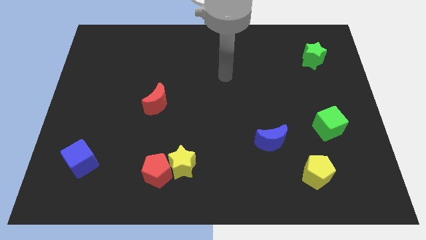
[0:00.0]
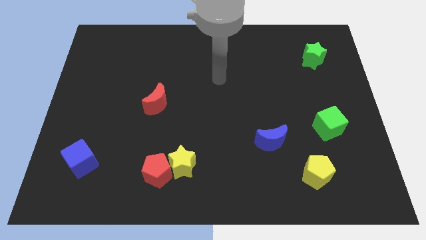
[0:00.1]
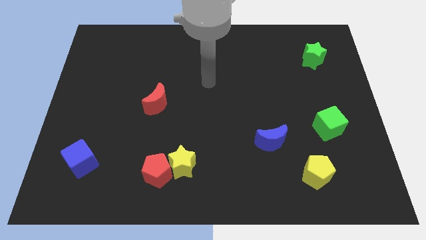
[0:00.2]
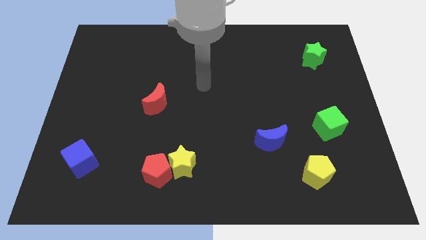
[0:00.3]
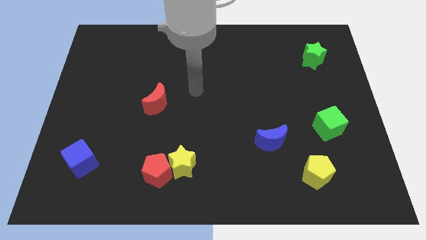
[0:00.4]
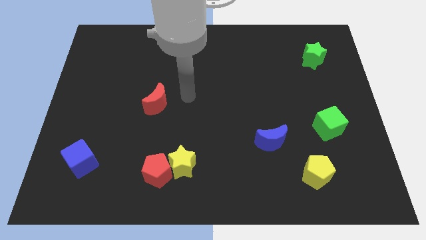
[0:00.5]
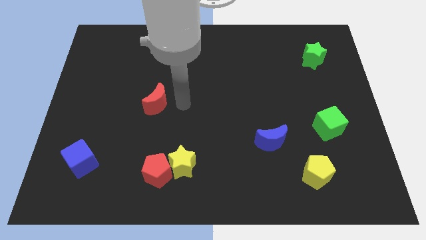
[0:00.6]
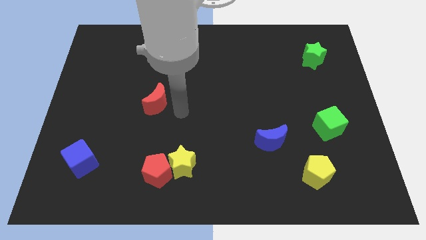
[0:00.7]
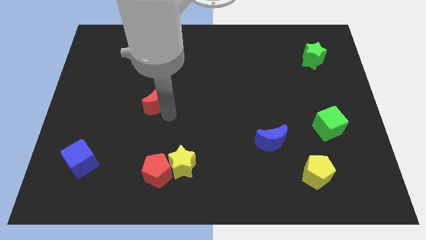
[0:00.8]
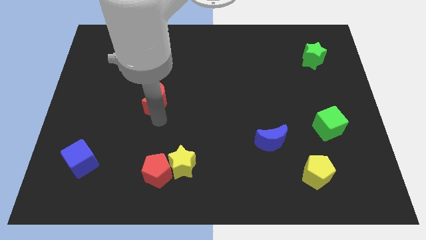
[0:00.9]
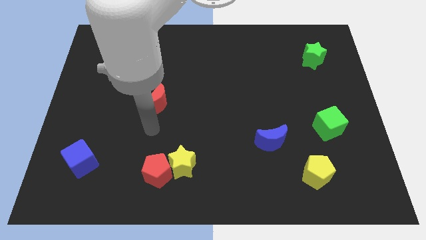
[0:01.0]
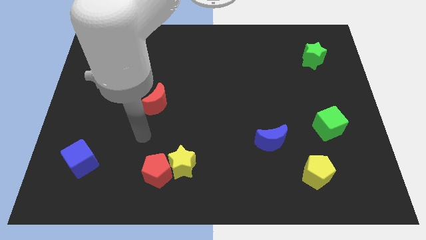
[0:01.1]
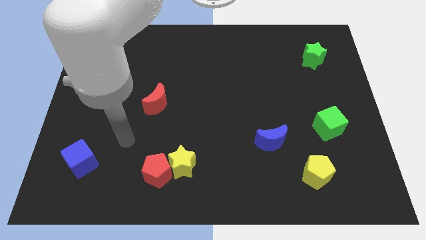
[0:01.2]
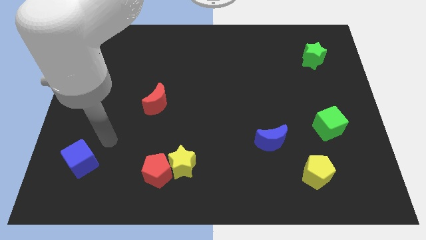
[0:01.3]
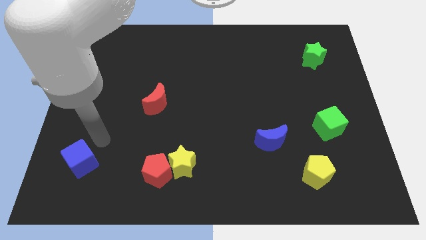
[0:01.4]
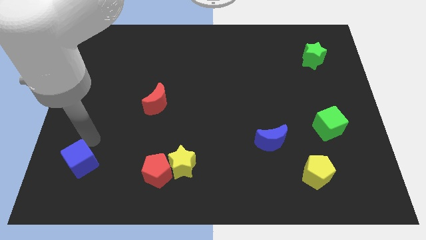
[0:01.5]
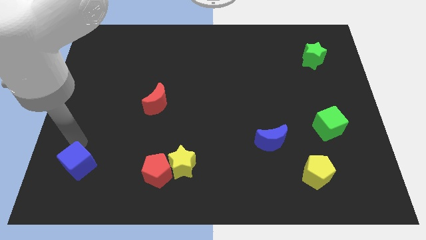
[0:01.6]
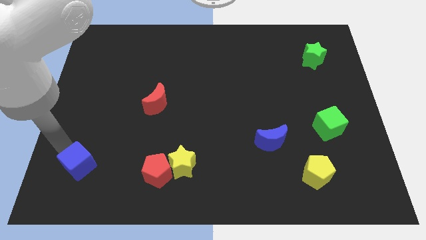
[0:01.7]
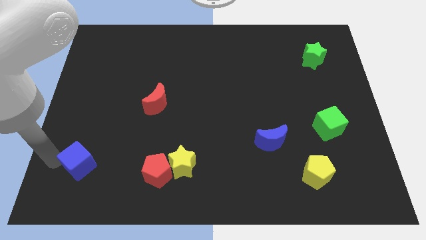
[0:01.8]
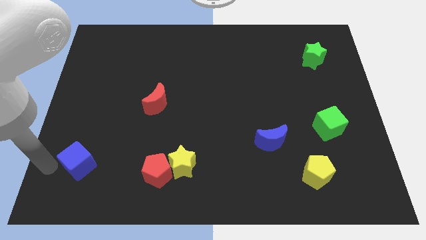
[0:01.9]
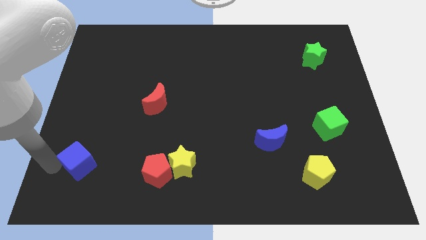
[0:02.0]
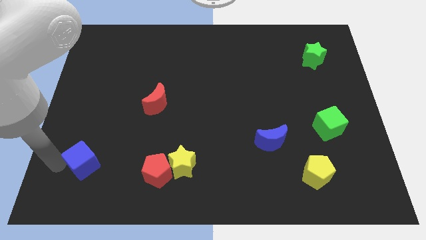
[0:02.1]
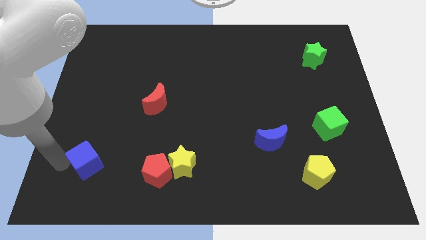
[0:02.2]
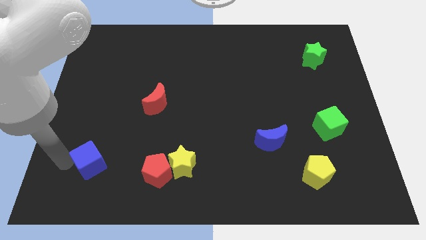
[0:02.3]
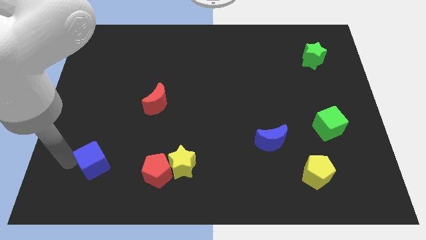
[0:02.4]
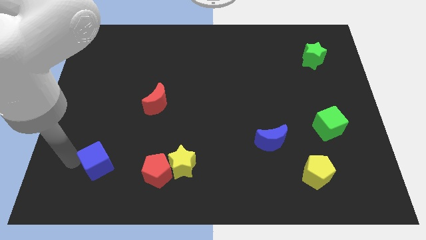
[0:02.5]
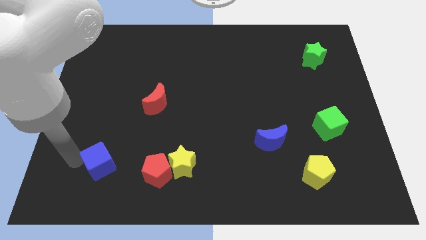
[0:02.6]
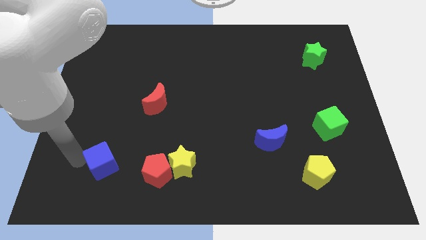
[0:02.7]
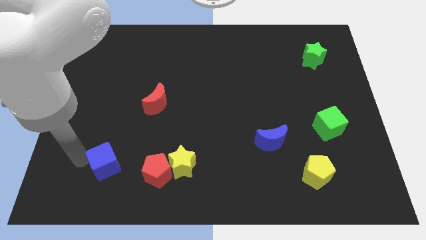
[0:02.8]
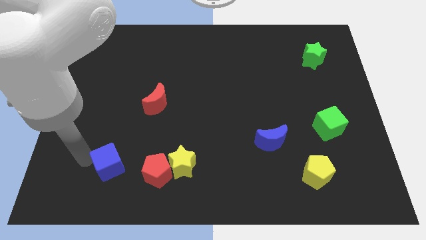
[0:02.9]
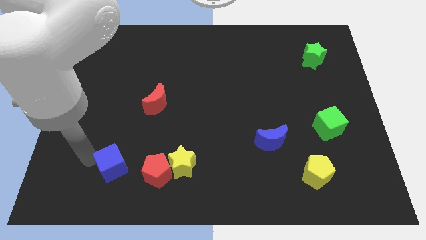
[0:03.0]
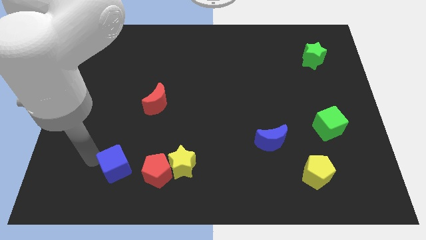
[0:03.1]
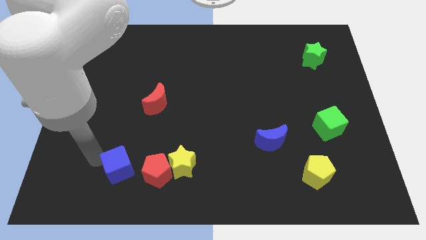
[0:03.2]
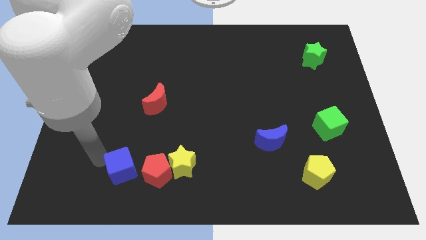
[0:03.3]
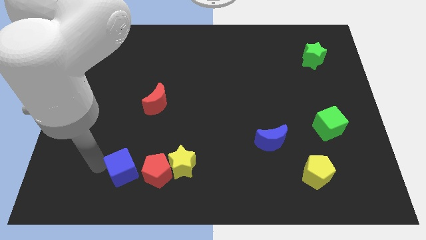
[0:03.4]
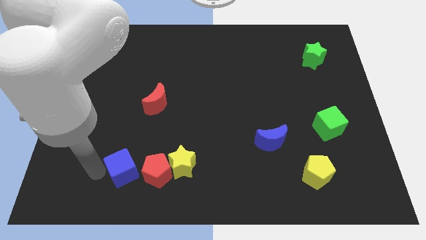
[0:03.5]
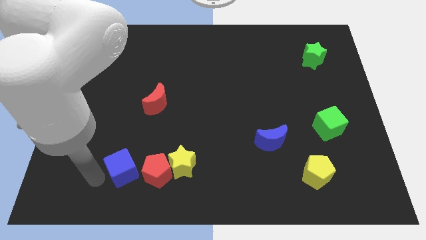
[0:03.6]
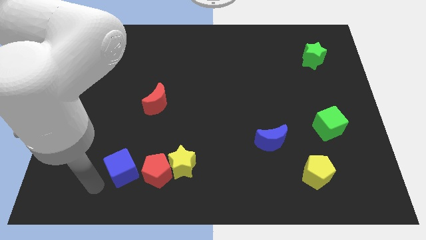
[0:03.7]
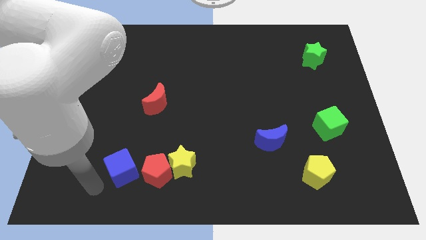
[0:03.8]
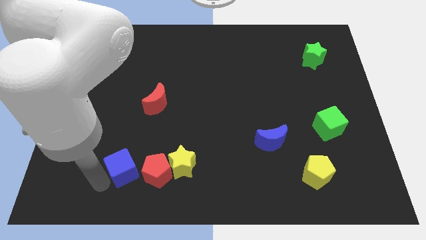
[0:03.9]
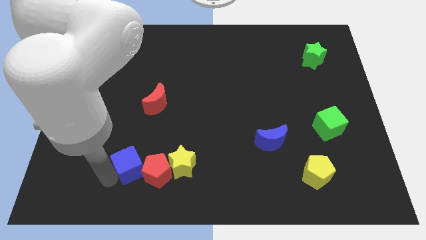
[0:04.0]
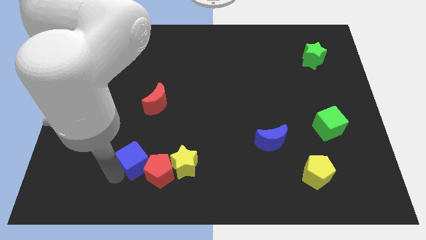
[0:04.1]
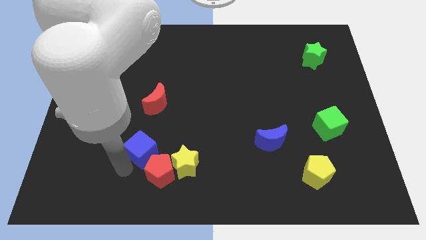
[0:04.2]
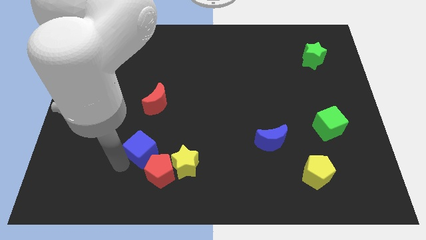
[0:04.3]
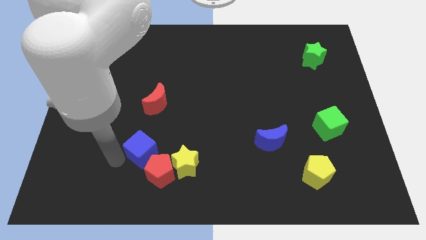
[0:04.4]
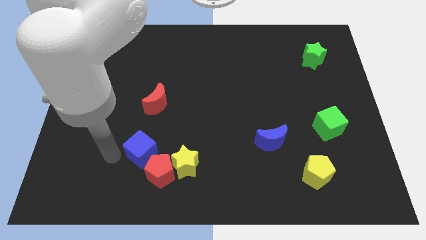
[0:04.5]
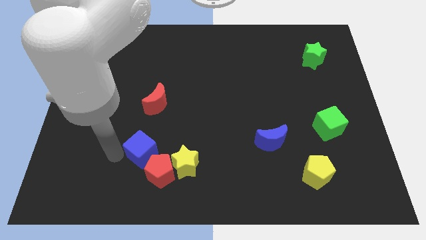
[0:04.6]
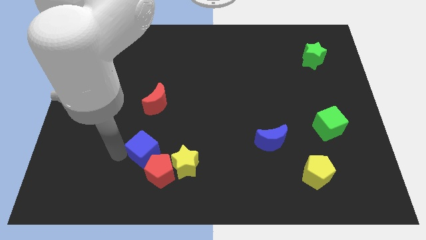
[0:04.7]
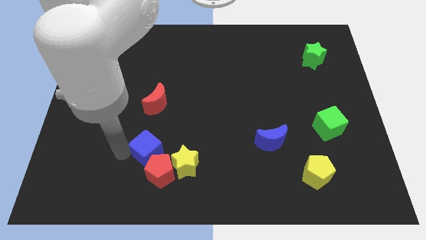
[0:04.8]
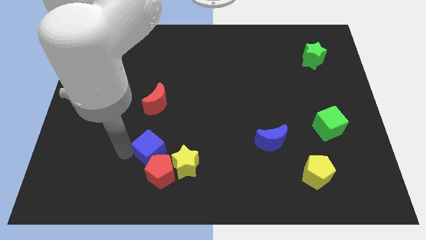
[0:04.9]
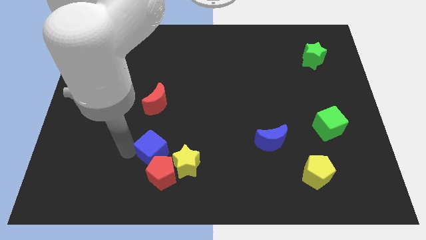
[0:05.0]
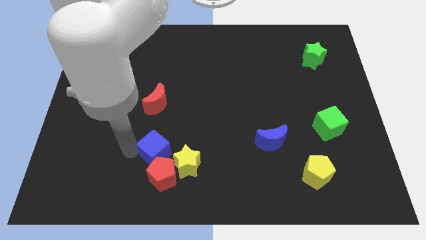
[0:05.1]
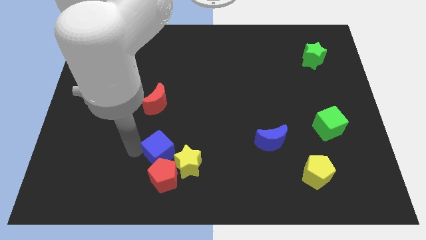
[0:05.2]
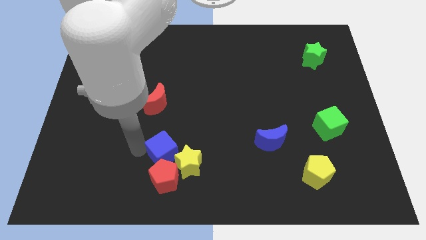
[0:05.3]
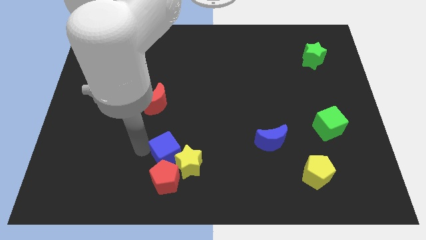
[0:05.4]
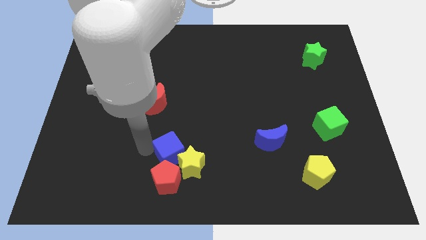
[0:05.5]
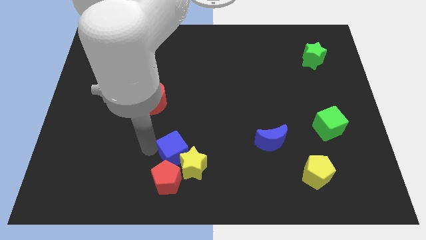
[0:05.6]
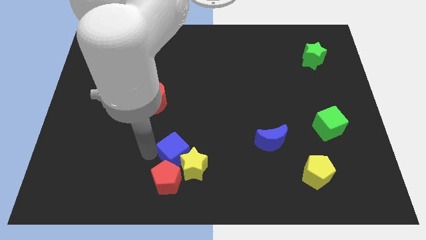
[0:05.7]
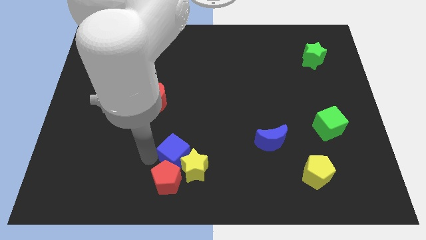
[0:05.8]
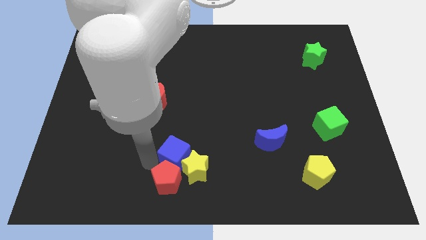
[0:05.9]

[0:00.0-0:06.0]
move the blue cube to the right

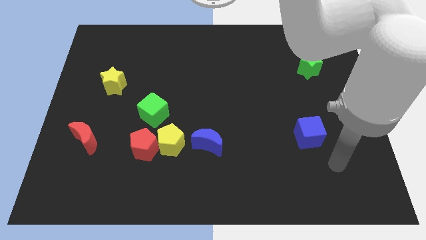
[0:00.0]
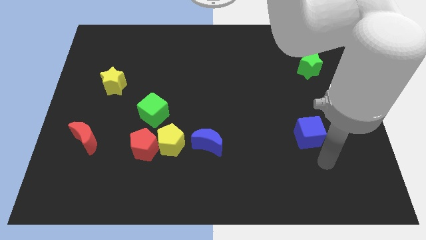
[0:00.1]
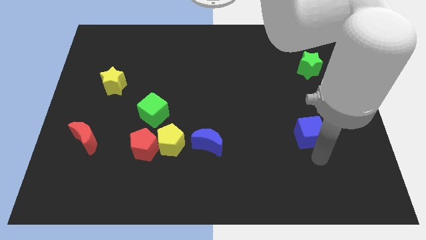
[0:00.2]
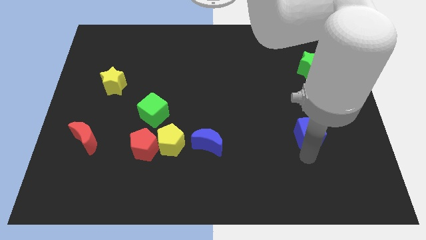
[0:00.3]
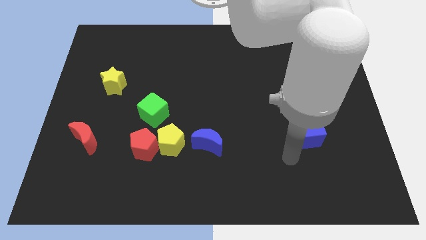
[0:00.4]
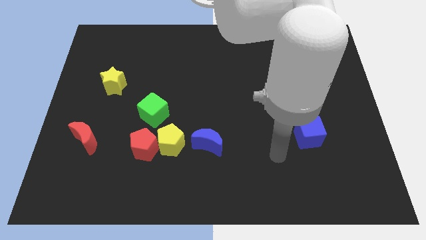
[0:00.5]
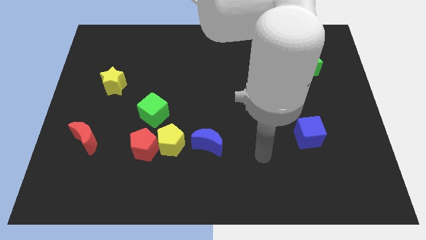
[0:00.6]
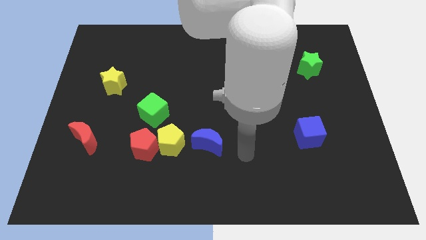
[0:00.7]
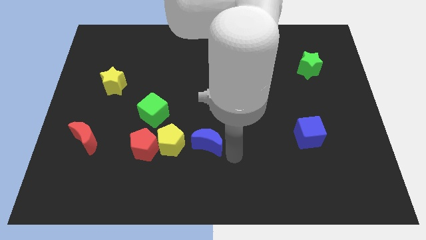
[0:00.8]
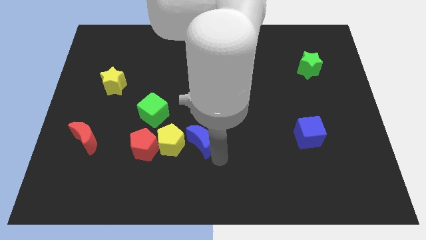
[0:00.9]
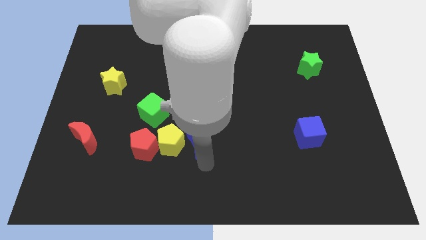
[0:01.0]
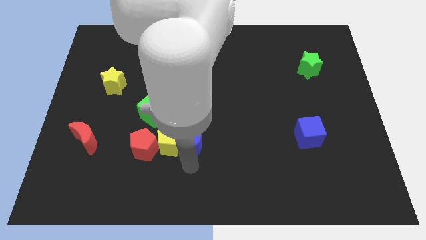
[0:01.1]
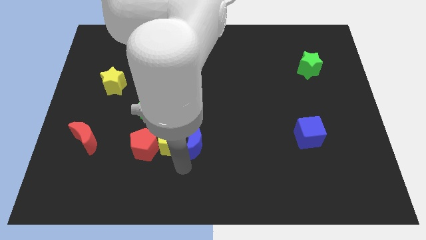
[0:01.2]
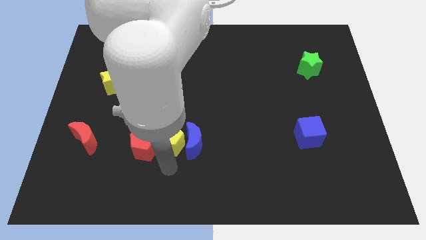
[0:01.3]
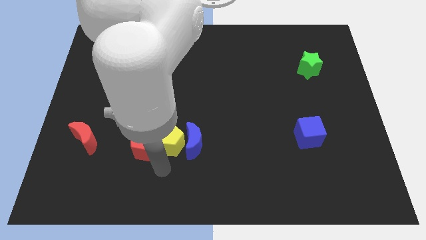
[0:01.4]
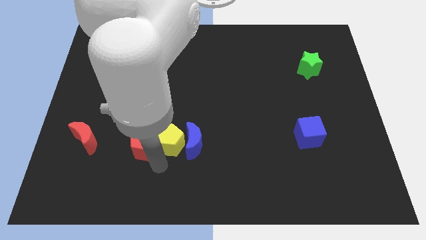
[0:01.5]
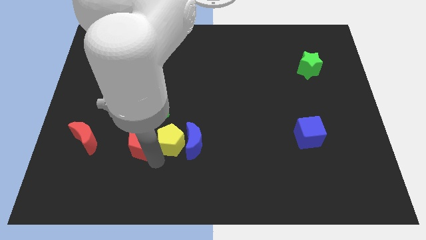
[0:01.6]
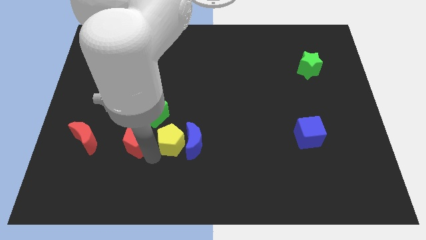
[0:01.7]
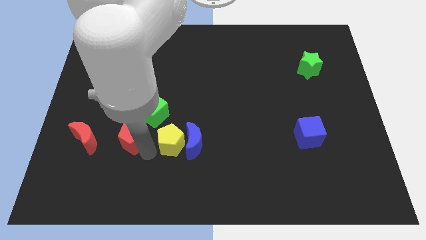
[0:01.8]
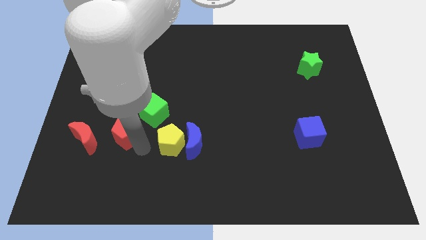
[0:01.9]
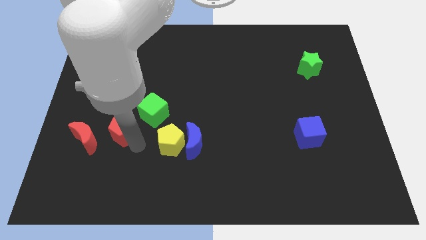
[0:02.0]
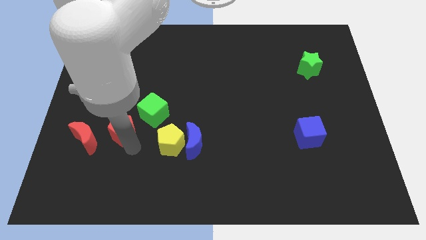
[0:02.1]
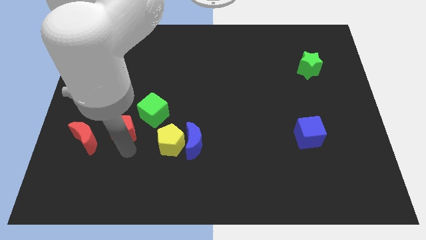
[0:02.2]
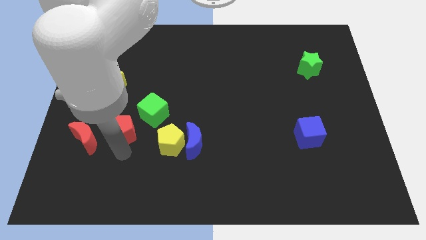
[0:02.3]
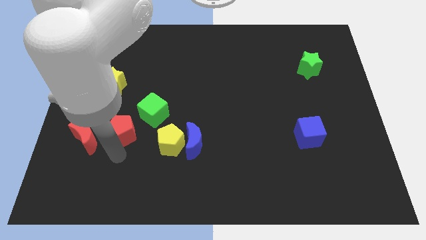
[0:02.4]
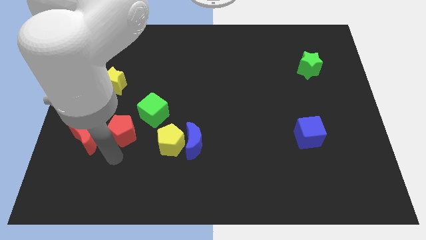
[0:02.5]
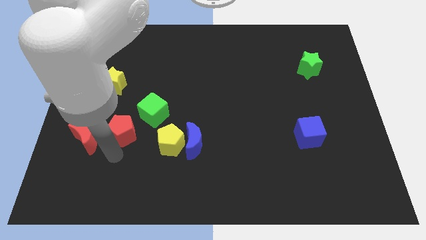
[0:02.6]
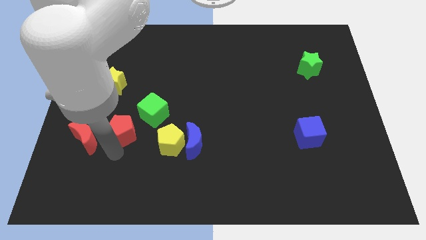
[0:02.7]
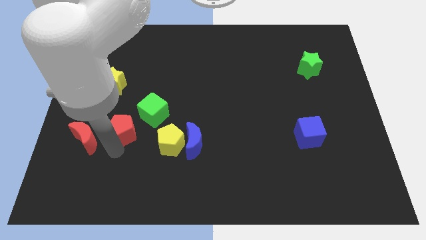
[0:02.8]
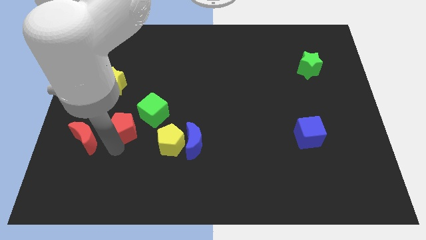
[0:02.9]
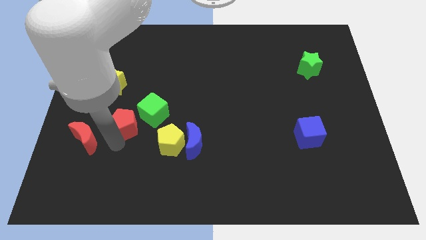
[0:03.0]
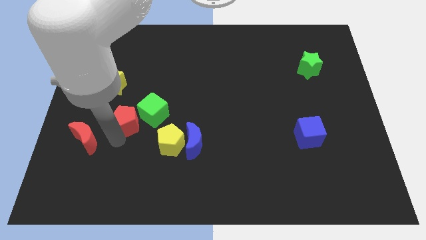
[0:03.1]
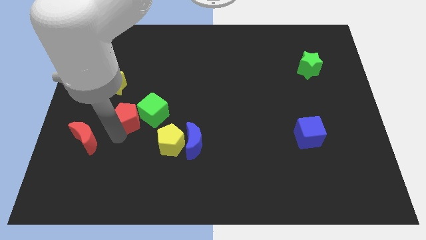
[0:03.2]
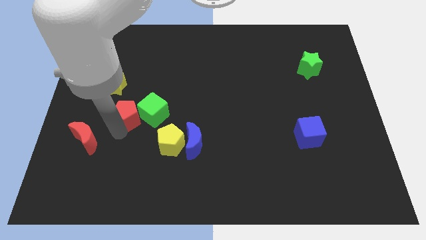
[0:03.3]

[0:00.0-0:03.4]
slightly slide the red pentagon up
